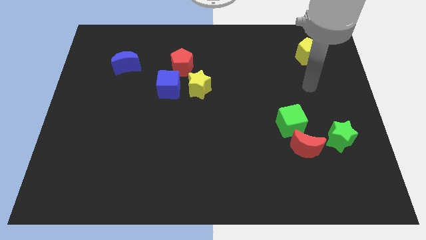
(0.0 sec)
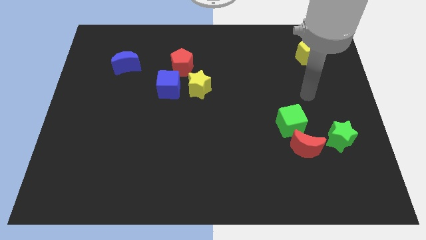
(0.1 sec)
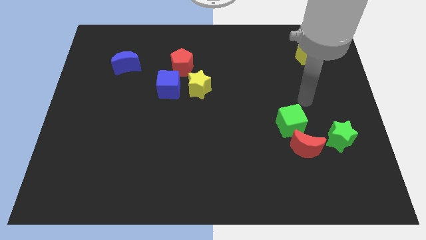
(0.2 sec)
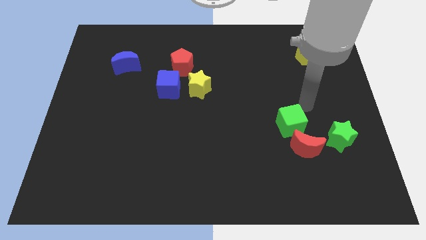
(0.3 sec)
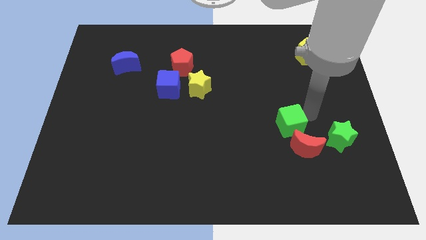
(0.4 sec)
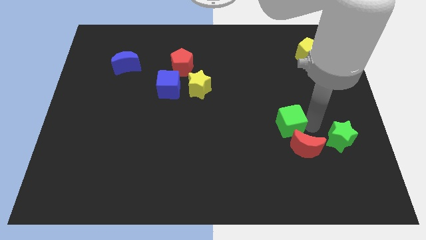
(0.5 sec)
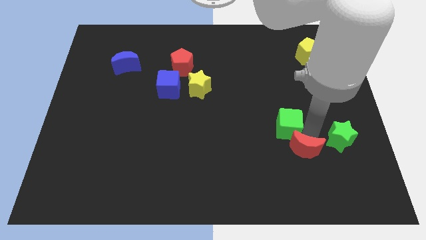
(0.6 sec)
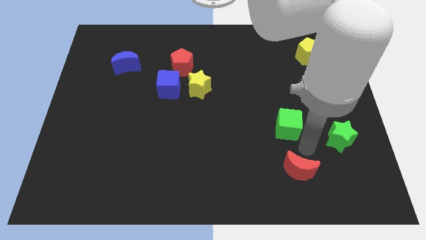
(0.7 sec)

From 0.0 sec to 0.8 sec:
separate the green cube from the red moon

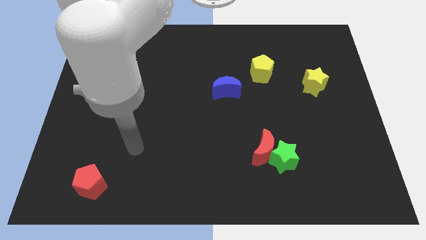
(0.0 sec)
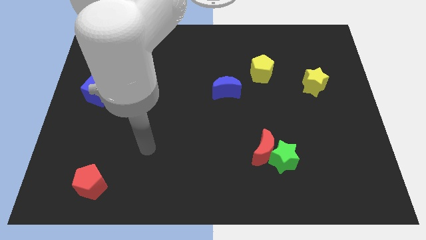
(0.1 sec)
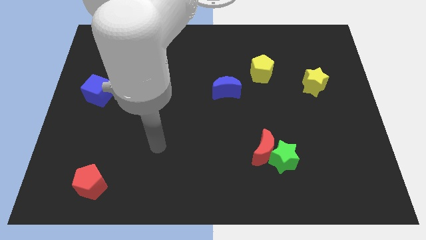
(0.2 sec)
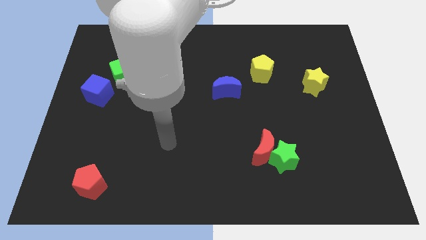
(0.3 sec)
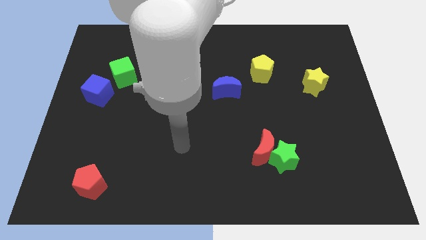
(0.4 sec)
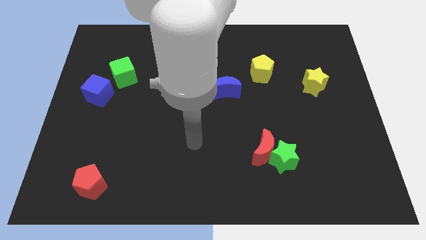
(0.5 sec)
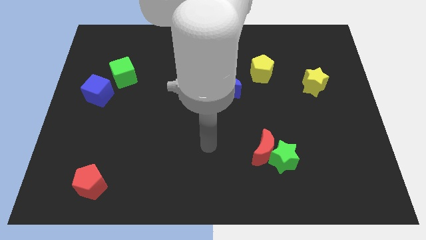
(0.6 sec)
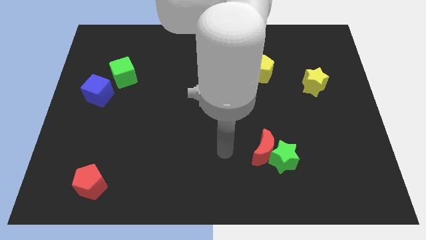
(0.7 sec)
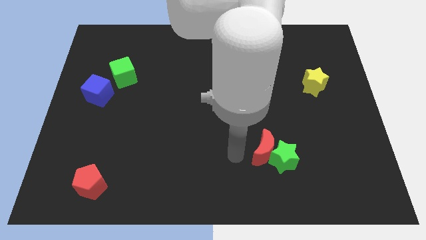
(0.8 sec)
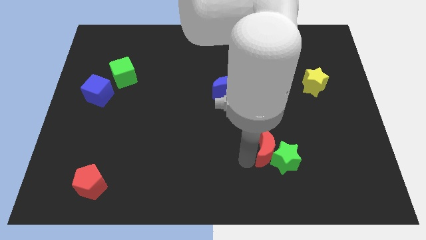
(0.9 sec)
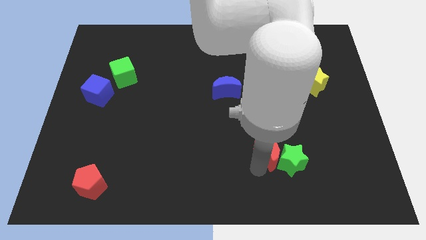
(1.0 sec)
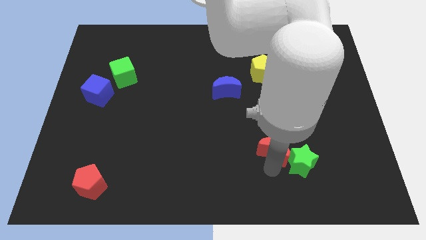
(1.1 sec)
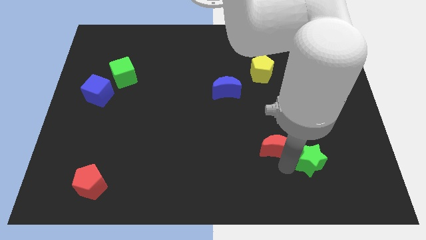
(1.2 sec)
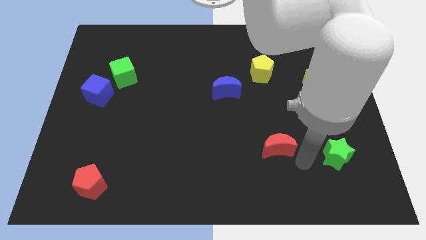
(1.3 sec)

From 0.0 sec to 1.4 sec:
pull the red moon apart from the green star

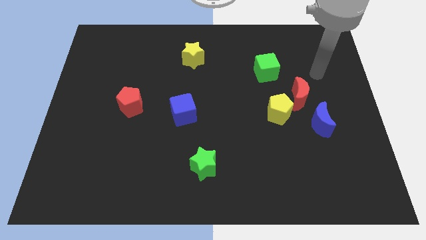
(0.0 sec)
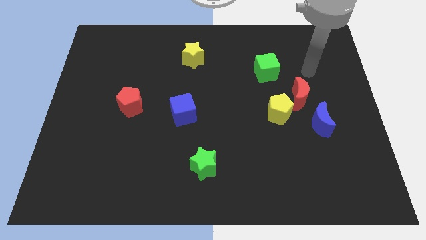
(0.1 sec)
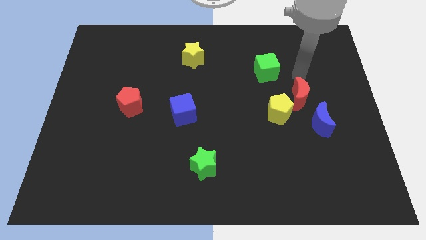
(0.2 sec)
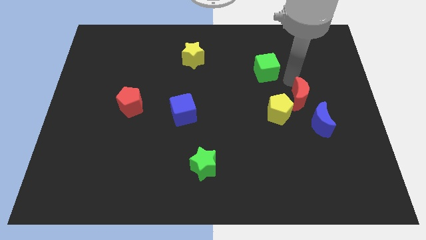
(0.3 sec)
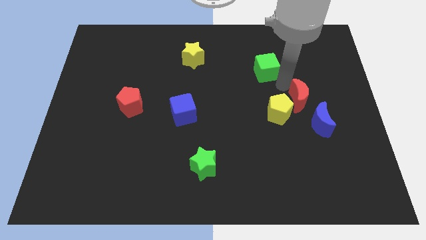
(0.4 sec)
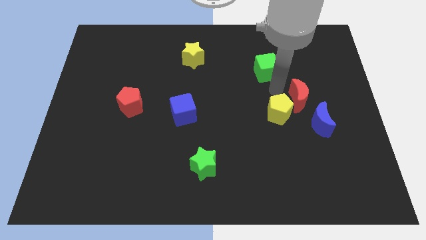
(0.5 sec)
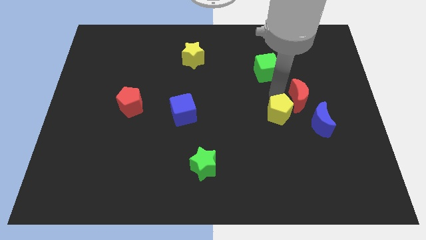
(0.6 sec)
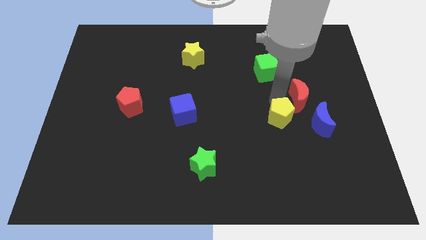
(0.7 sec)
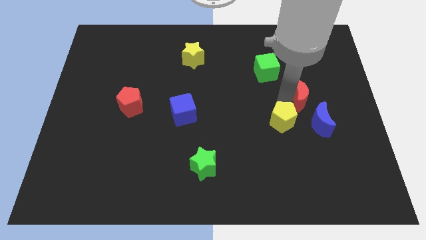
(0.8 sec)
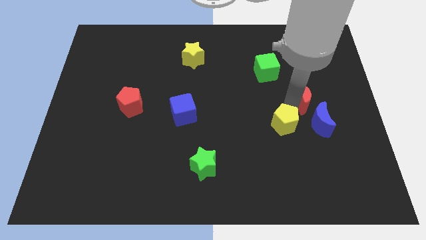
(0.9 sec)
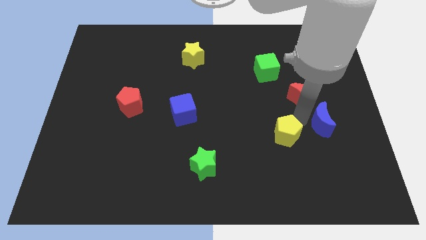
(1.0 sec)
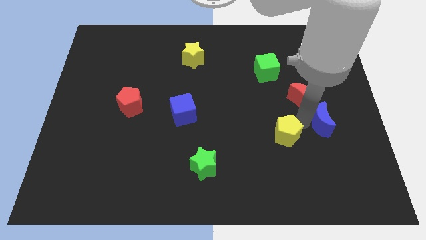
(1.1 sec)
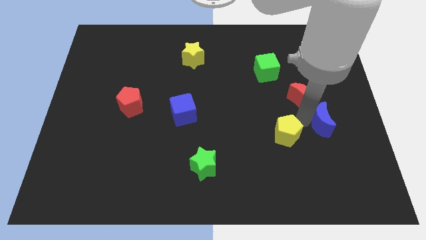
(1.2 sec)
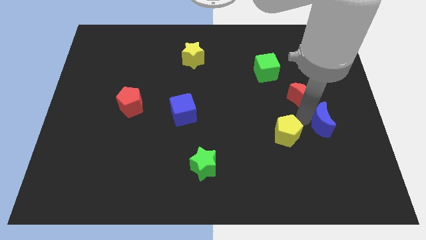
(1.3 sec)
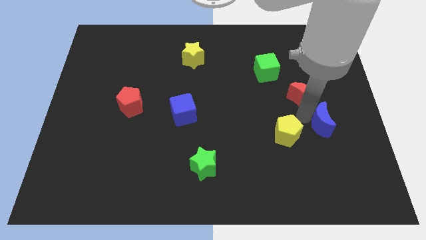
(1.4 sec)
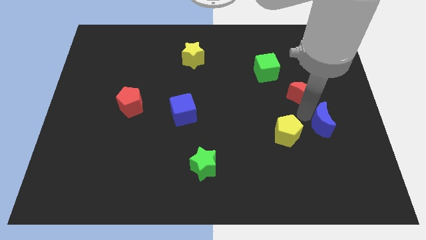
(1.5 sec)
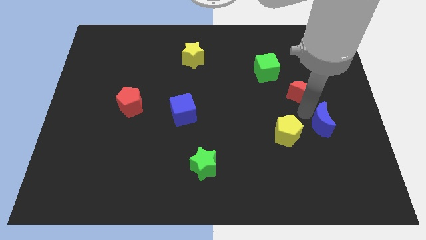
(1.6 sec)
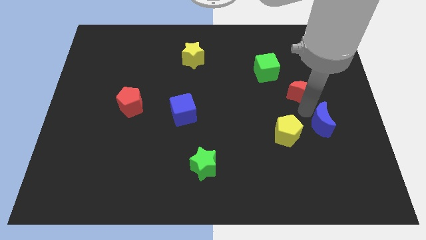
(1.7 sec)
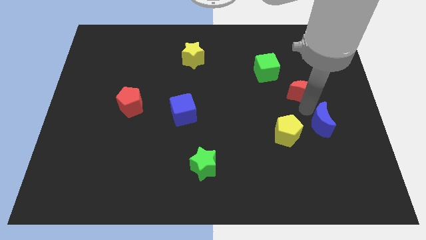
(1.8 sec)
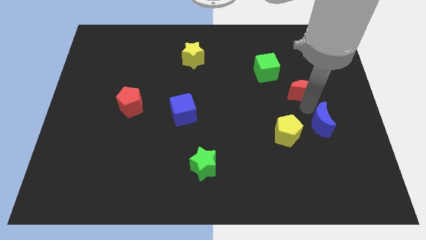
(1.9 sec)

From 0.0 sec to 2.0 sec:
pull the red moon apart from the yellow pentagon and blue moon

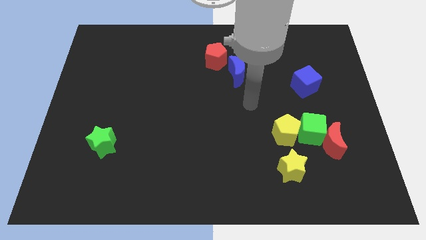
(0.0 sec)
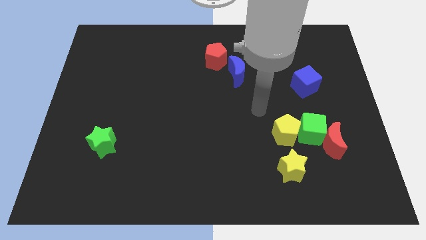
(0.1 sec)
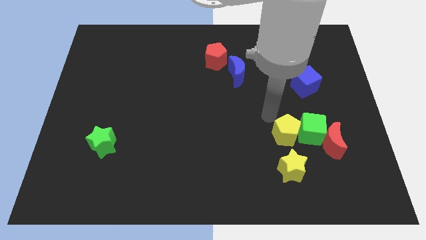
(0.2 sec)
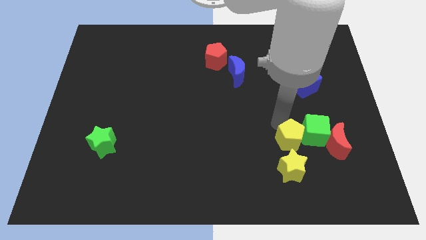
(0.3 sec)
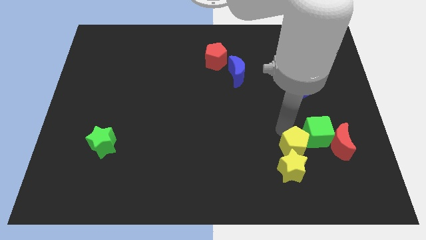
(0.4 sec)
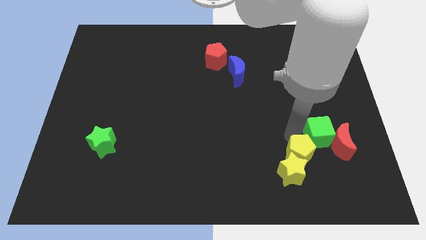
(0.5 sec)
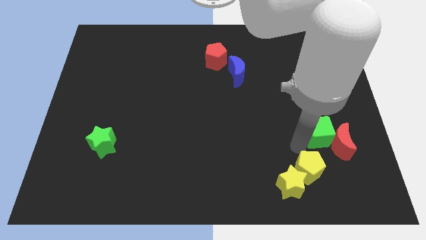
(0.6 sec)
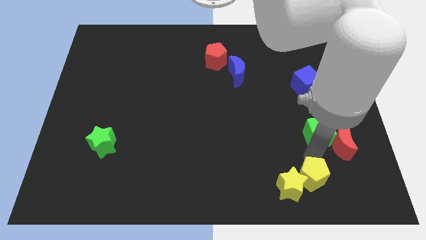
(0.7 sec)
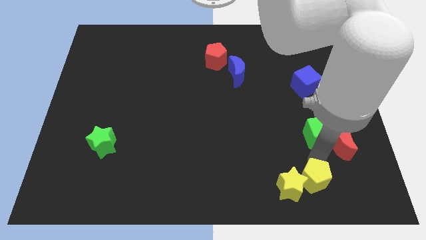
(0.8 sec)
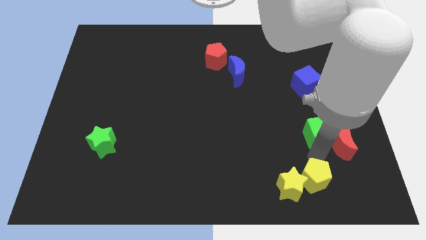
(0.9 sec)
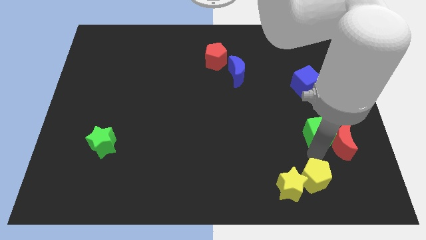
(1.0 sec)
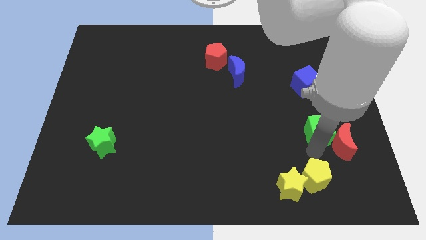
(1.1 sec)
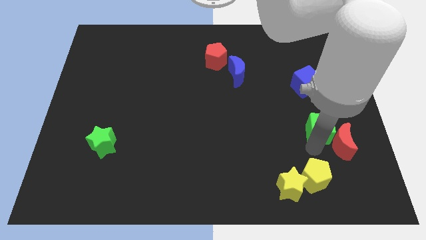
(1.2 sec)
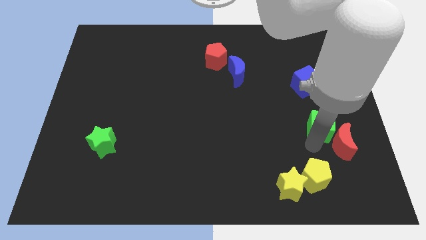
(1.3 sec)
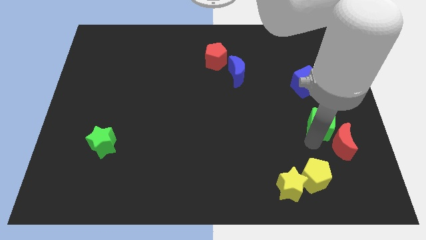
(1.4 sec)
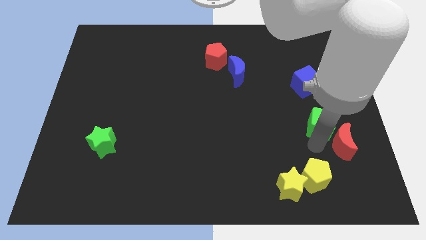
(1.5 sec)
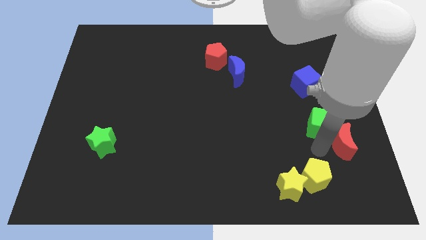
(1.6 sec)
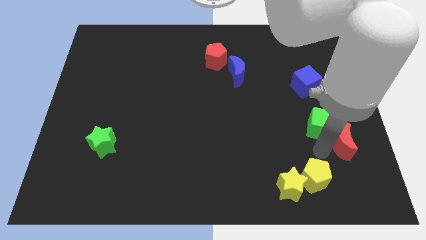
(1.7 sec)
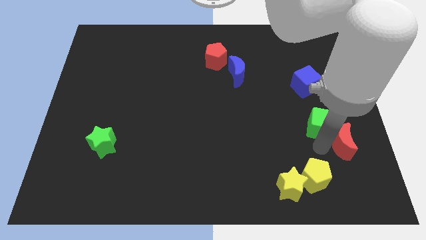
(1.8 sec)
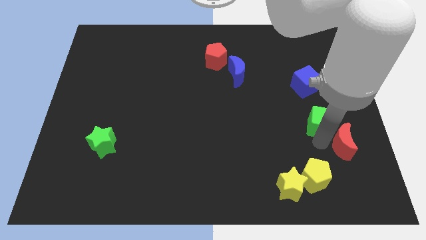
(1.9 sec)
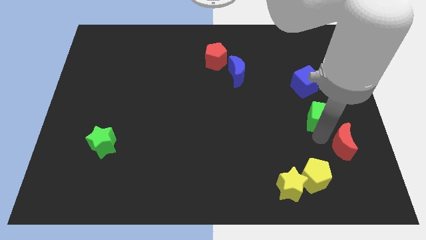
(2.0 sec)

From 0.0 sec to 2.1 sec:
pull the green cube apart from the red moon and yellow pentagon

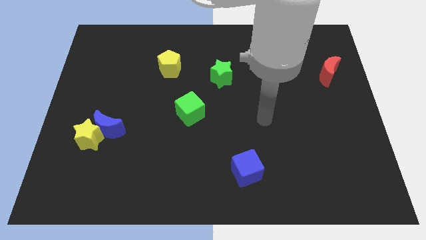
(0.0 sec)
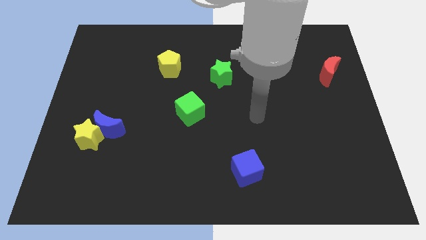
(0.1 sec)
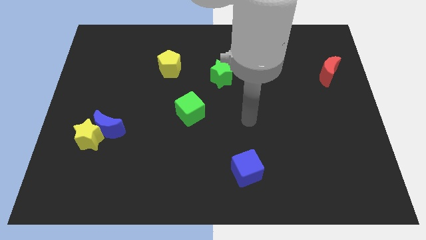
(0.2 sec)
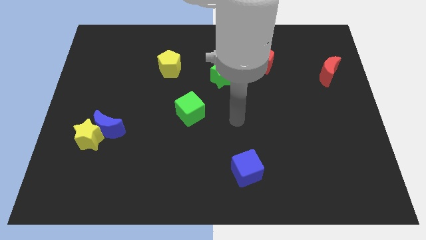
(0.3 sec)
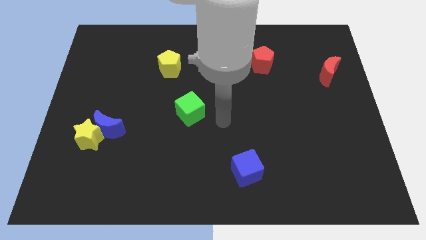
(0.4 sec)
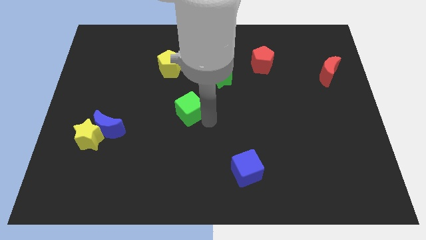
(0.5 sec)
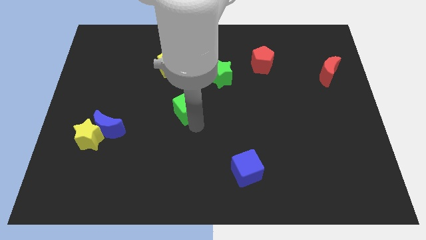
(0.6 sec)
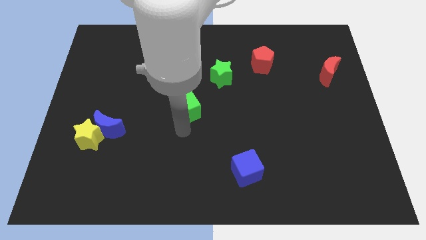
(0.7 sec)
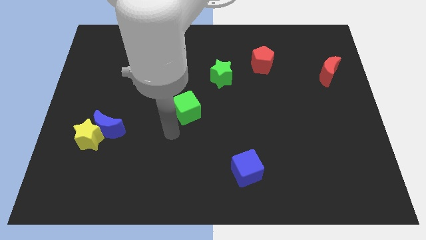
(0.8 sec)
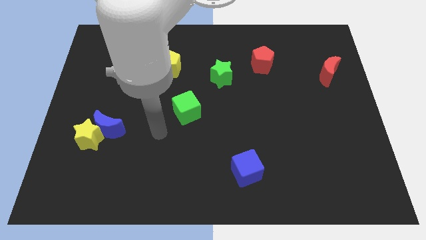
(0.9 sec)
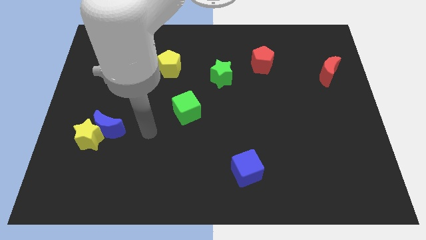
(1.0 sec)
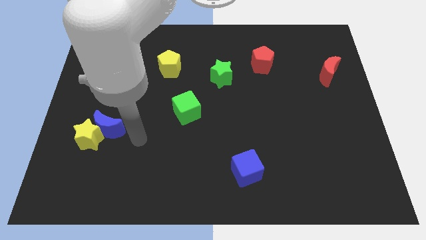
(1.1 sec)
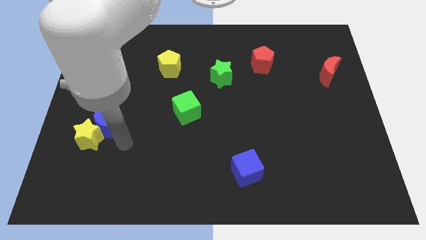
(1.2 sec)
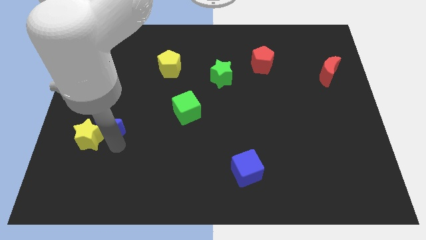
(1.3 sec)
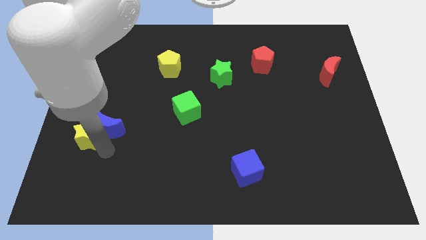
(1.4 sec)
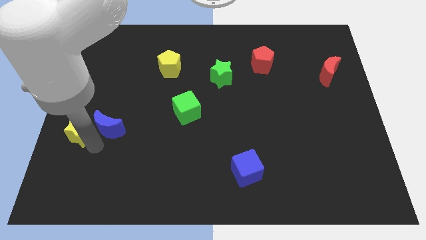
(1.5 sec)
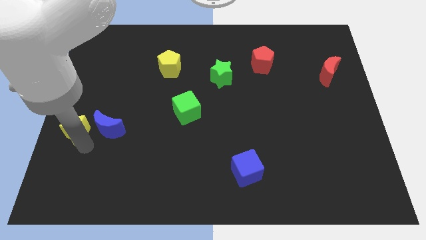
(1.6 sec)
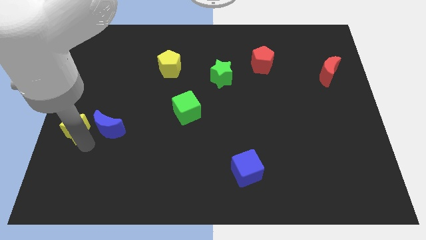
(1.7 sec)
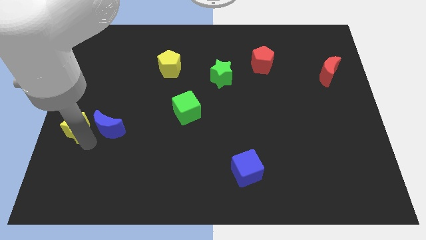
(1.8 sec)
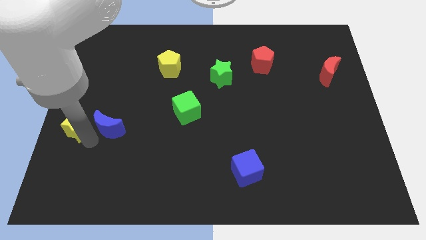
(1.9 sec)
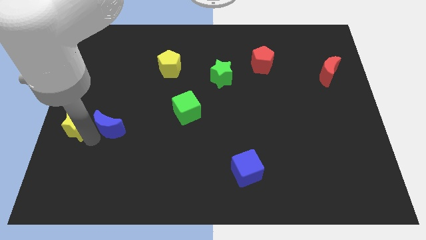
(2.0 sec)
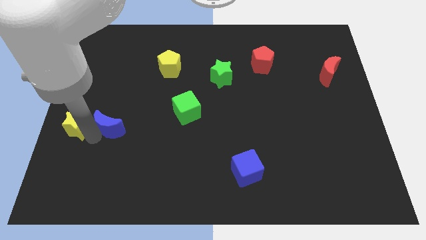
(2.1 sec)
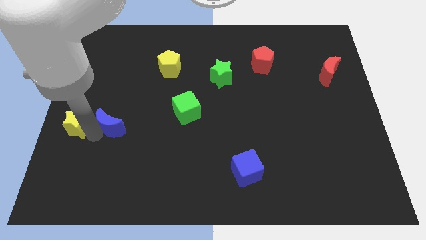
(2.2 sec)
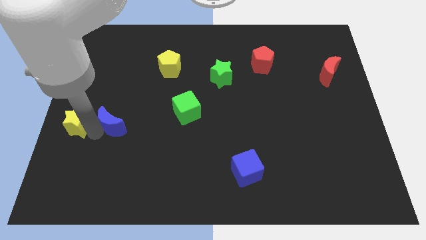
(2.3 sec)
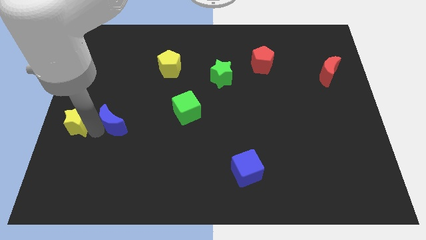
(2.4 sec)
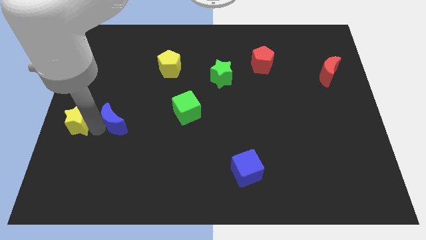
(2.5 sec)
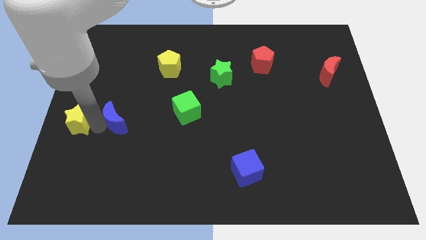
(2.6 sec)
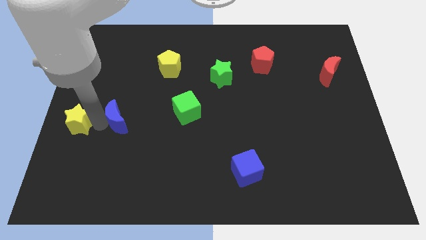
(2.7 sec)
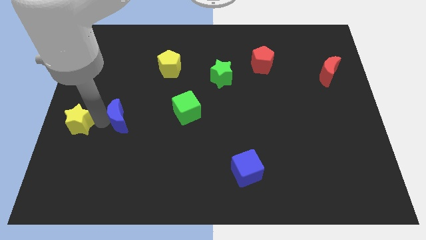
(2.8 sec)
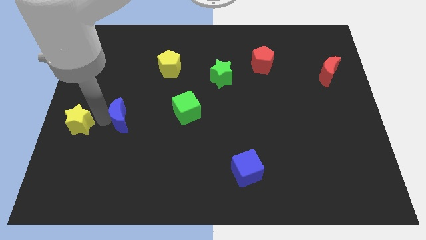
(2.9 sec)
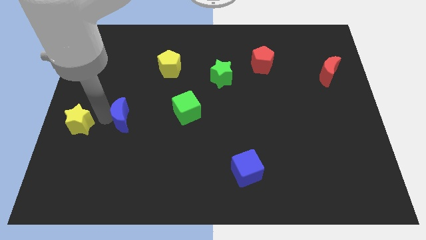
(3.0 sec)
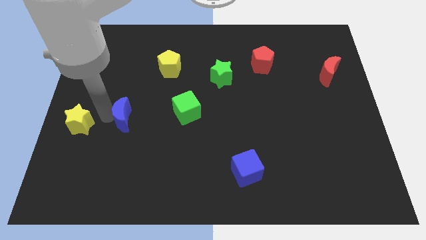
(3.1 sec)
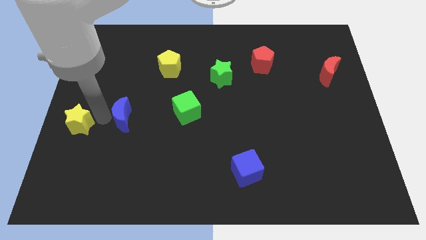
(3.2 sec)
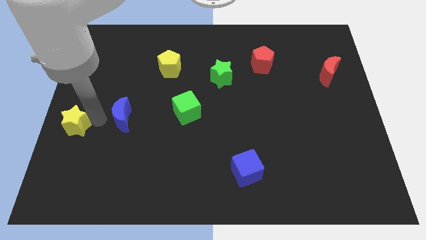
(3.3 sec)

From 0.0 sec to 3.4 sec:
pull the blue moon apart from the yellow star
